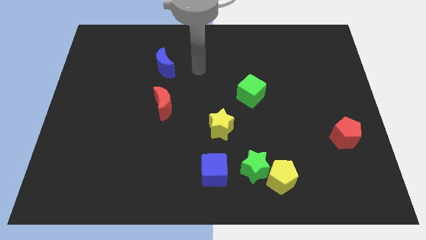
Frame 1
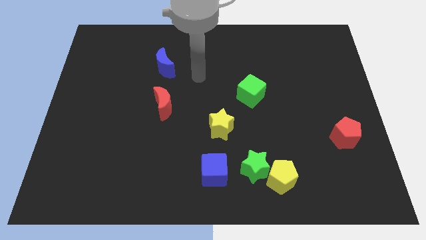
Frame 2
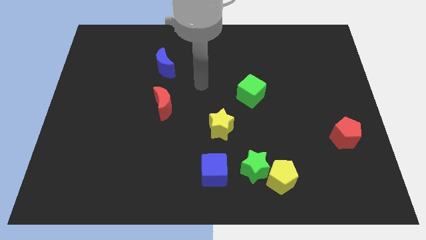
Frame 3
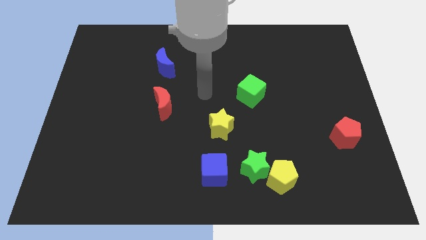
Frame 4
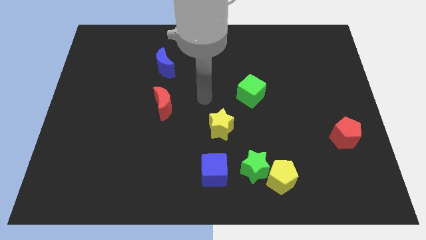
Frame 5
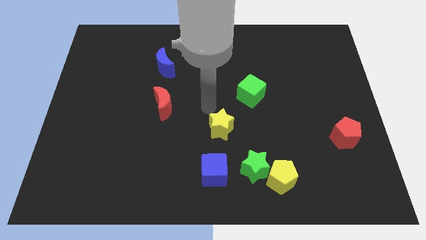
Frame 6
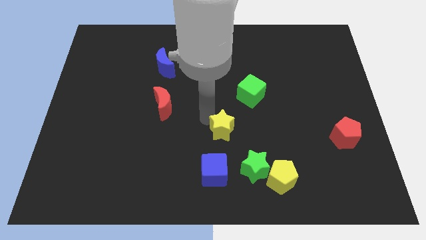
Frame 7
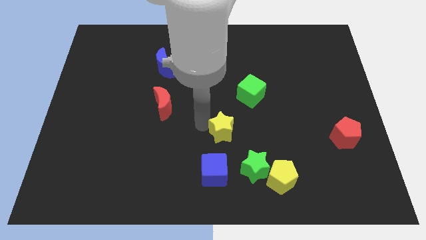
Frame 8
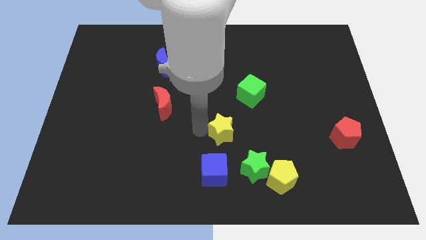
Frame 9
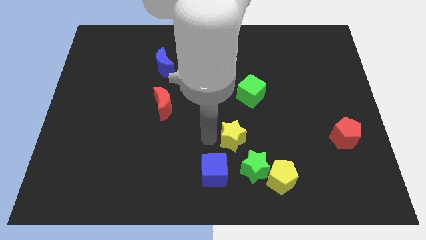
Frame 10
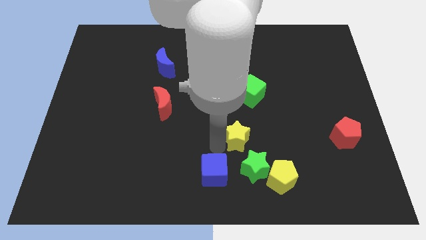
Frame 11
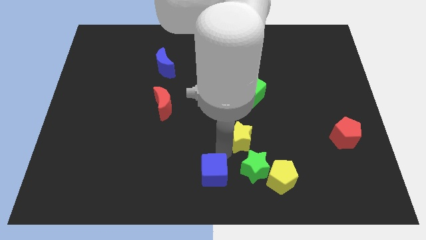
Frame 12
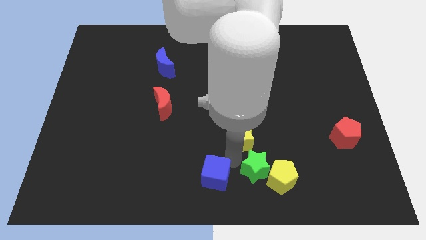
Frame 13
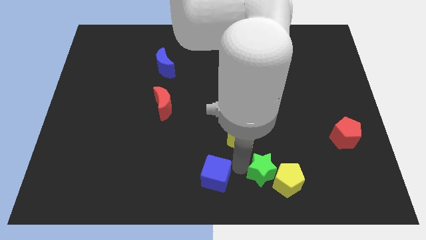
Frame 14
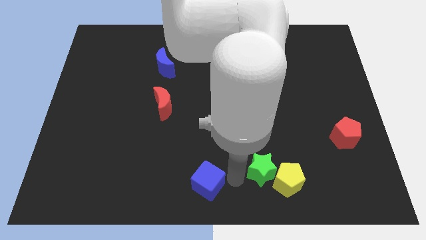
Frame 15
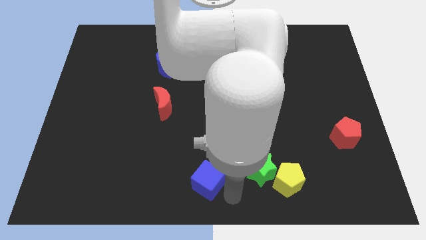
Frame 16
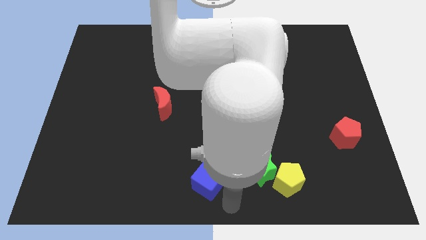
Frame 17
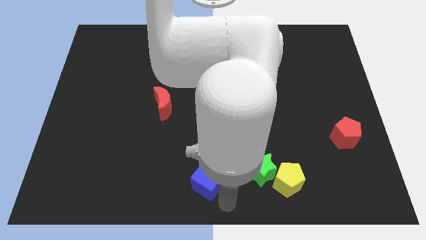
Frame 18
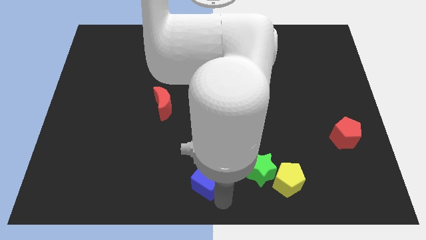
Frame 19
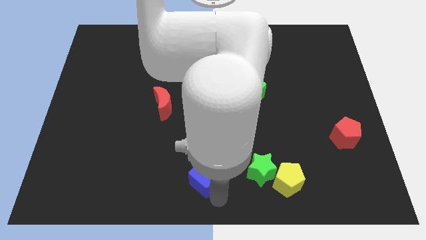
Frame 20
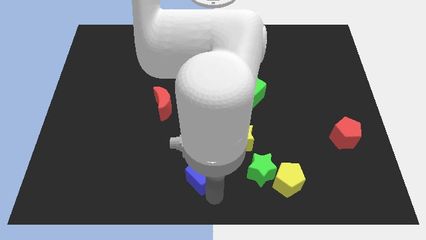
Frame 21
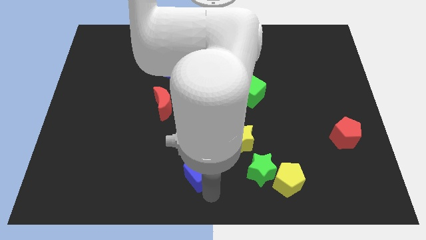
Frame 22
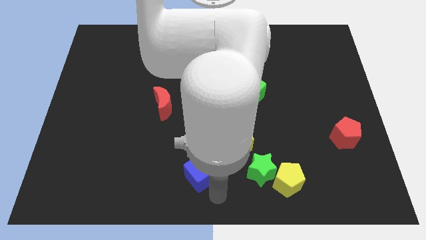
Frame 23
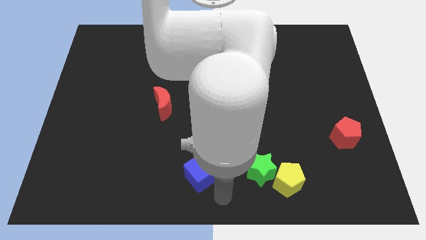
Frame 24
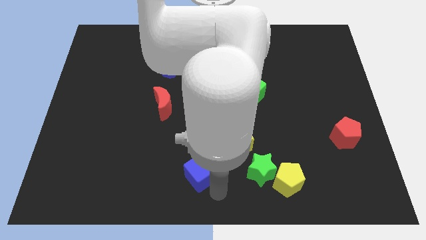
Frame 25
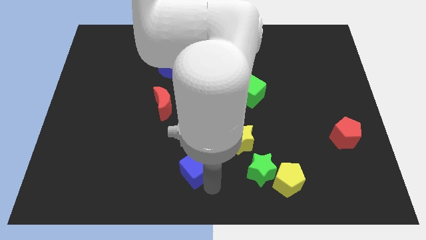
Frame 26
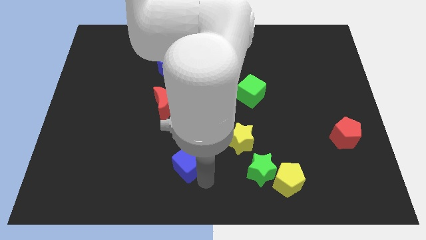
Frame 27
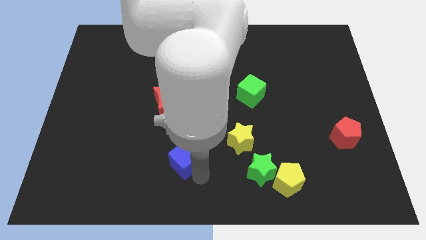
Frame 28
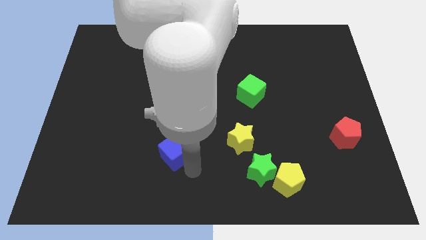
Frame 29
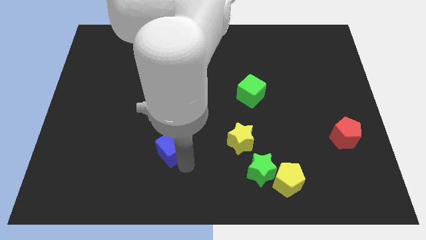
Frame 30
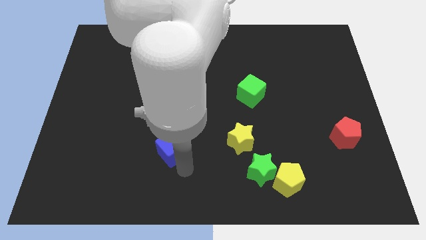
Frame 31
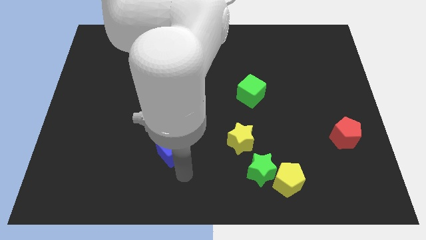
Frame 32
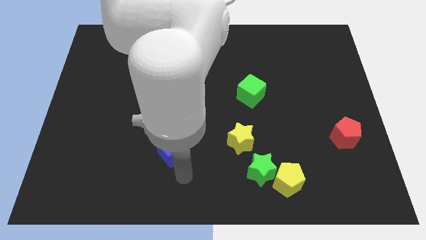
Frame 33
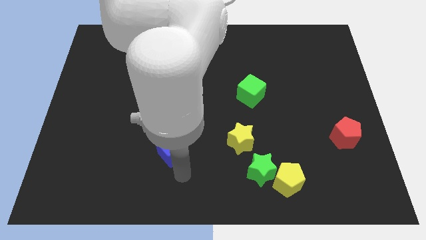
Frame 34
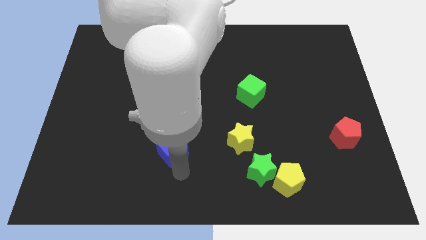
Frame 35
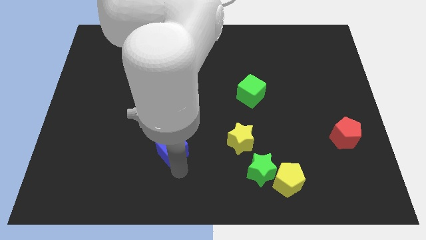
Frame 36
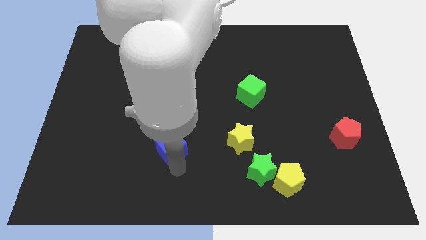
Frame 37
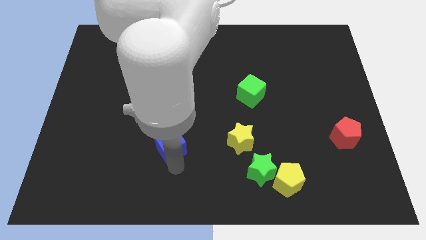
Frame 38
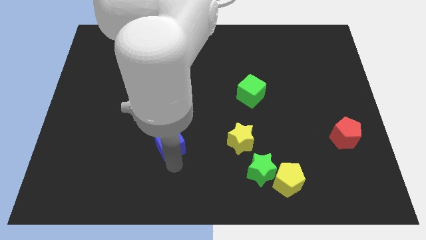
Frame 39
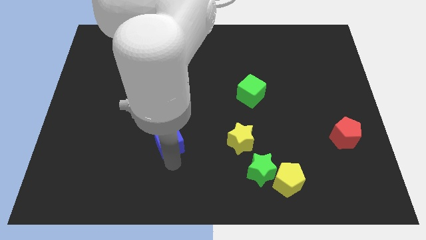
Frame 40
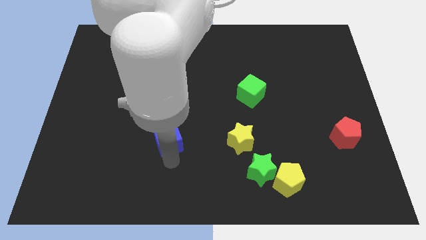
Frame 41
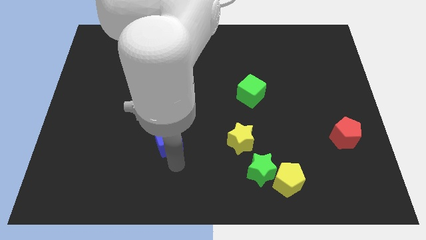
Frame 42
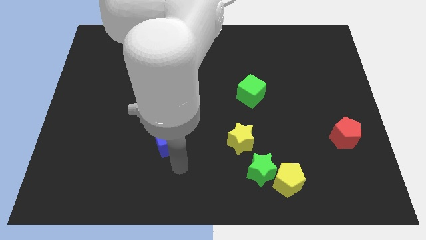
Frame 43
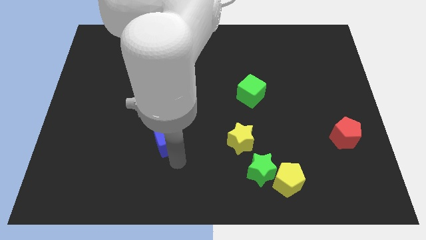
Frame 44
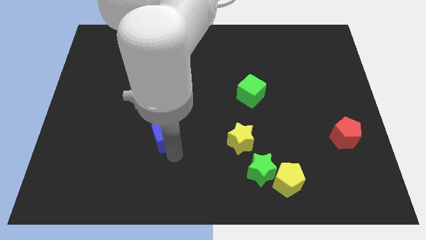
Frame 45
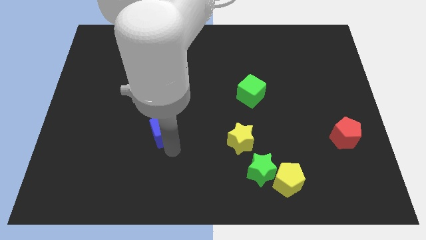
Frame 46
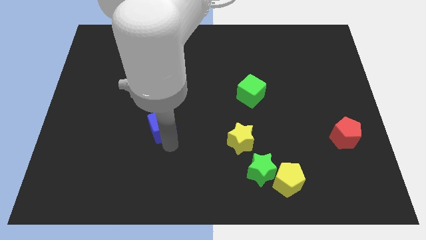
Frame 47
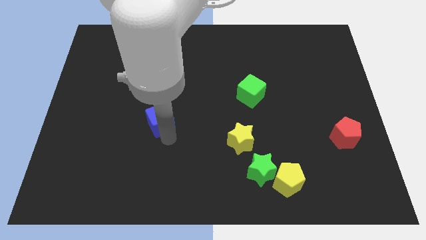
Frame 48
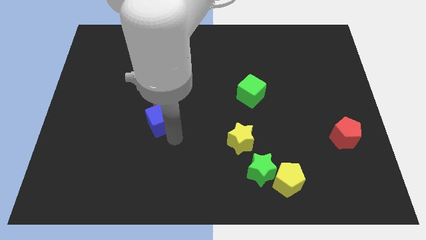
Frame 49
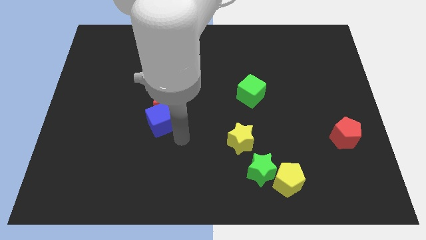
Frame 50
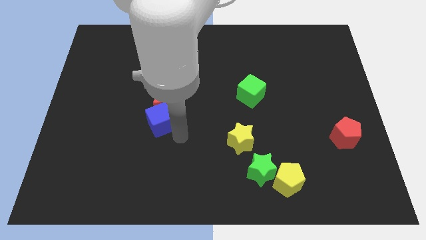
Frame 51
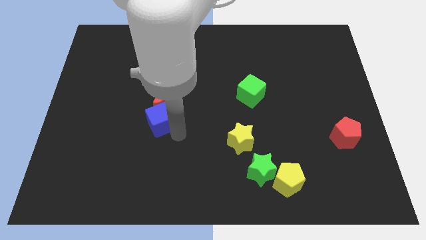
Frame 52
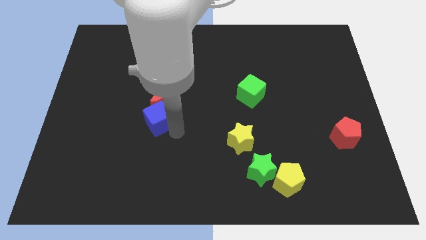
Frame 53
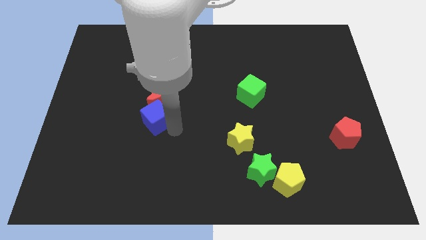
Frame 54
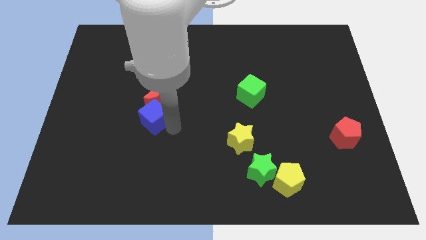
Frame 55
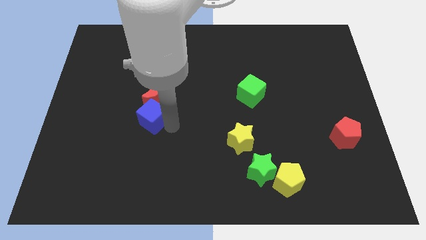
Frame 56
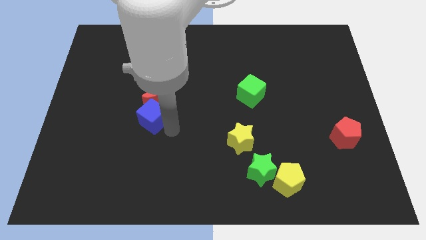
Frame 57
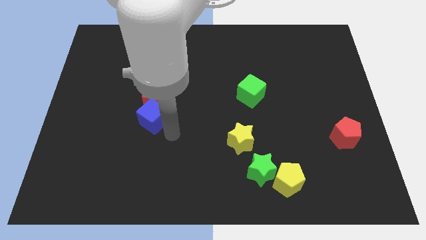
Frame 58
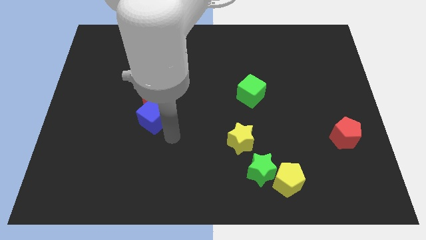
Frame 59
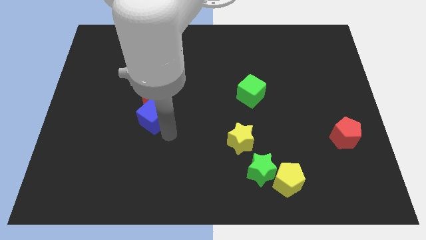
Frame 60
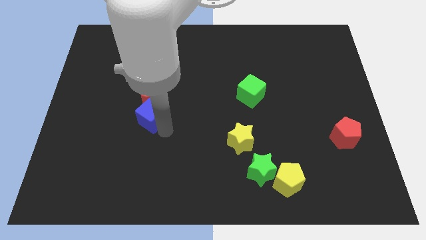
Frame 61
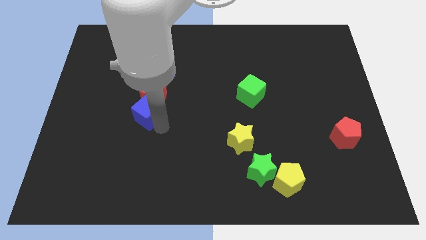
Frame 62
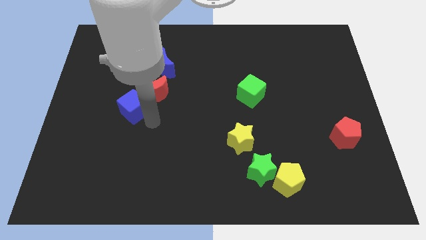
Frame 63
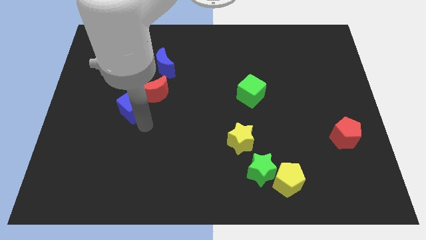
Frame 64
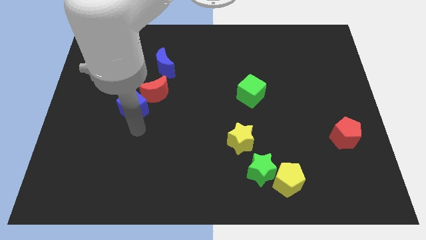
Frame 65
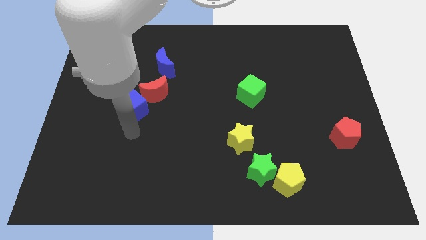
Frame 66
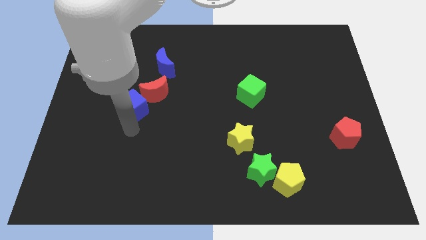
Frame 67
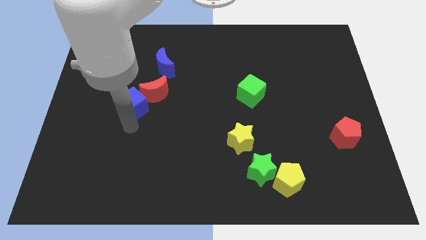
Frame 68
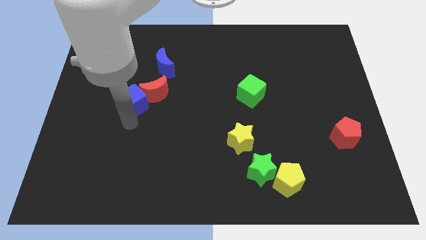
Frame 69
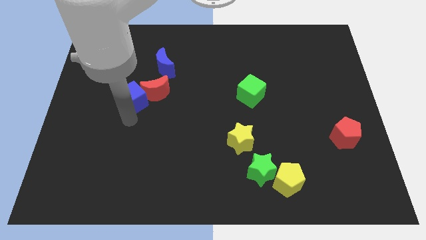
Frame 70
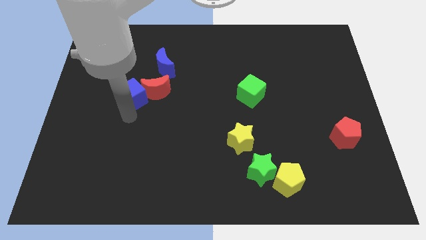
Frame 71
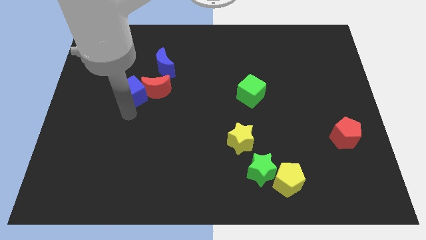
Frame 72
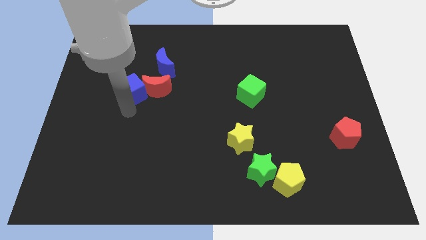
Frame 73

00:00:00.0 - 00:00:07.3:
slide the blue cube to the top left of the red moon
